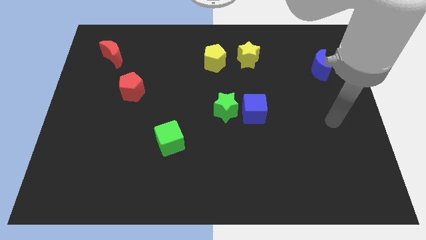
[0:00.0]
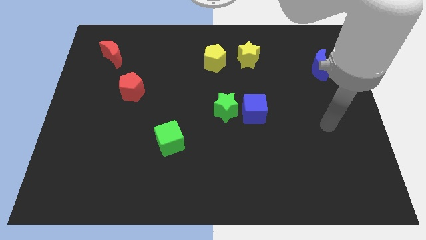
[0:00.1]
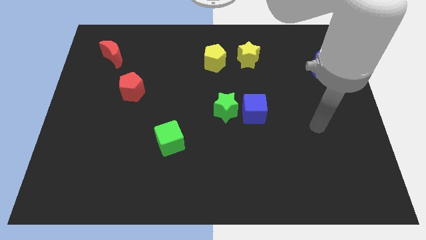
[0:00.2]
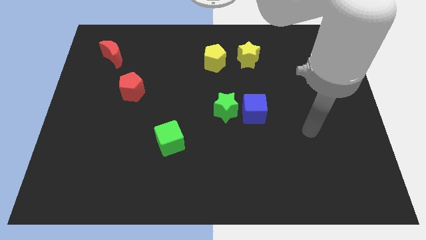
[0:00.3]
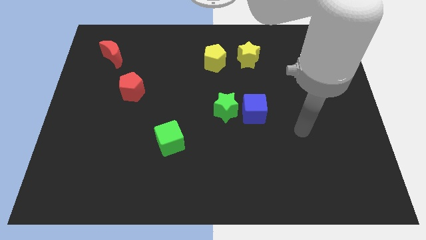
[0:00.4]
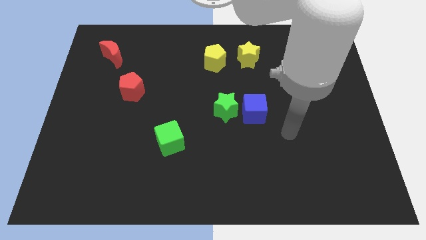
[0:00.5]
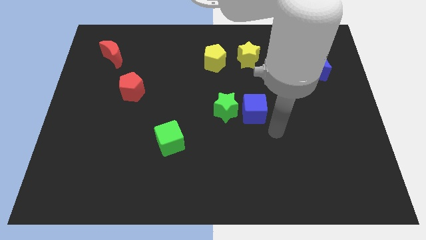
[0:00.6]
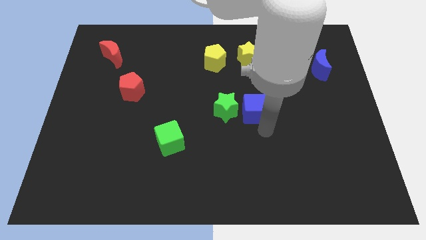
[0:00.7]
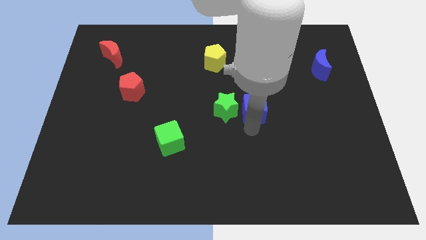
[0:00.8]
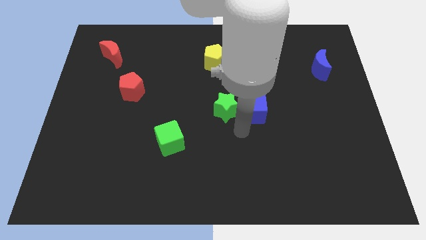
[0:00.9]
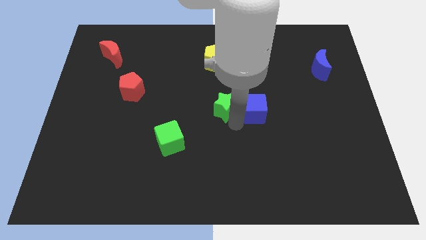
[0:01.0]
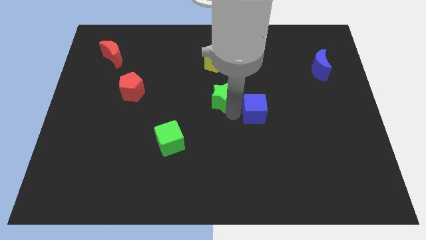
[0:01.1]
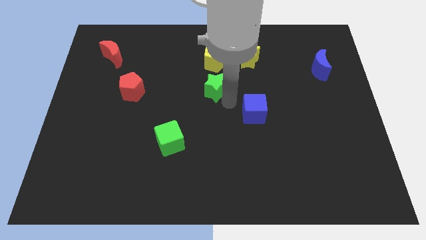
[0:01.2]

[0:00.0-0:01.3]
separate the blue cube from the green star

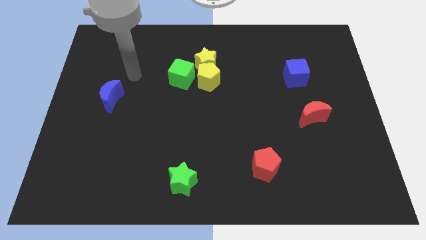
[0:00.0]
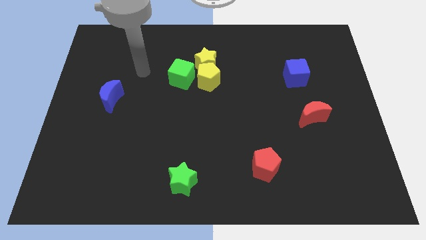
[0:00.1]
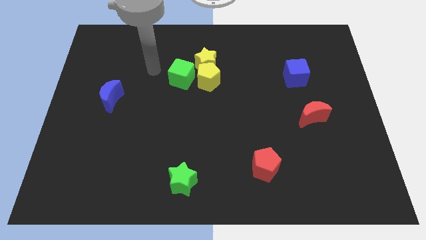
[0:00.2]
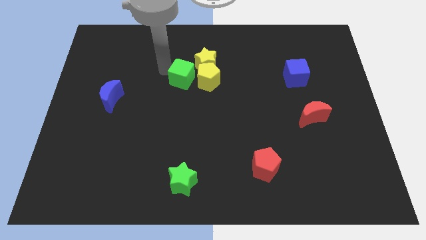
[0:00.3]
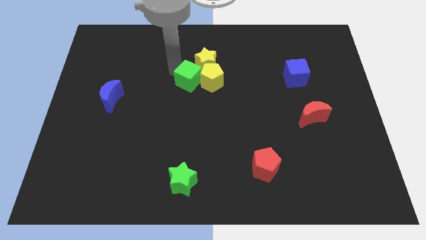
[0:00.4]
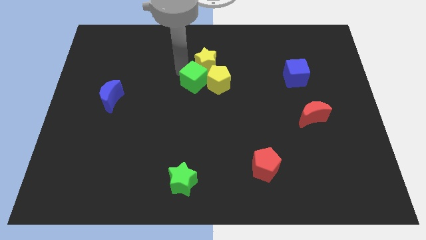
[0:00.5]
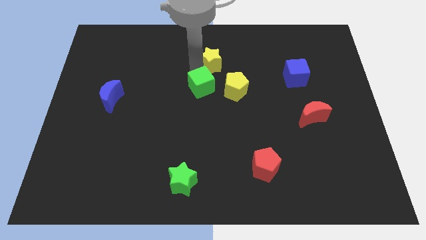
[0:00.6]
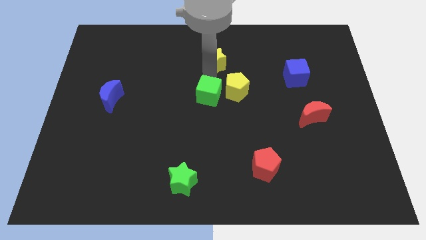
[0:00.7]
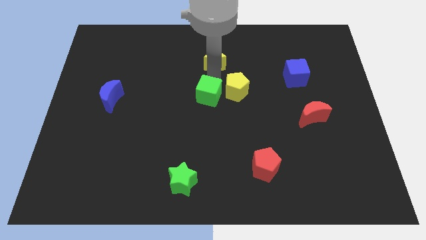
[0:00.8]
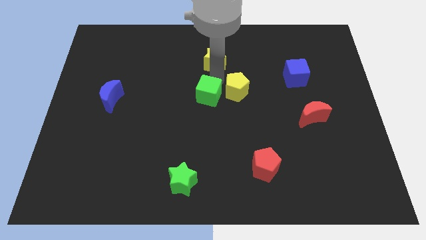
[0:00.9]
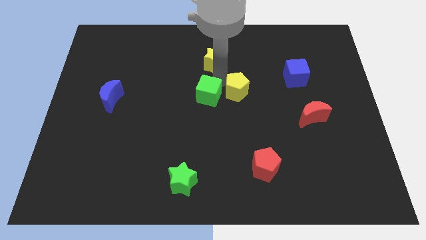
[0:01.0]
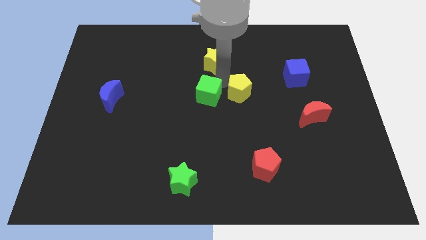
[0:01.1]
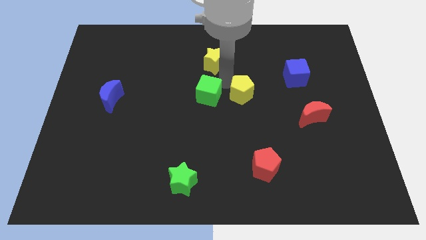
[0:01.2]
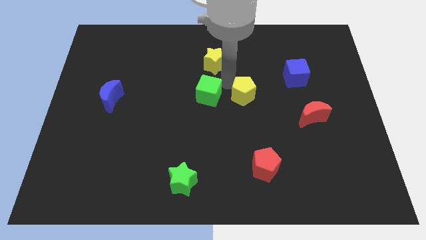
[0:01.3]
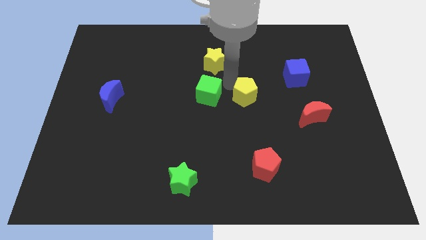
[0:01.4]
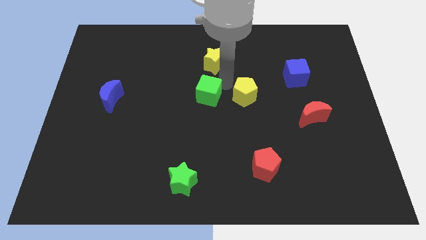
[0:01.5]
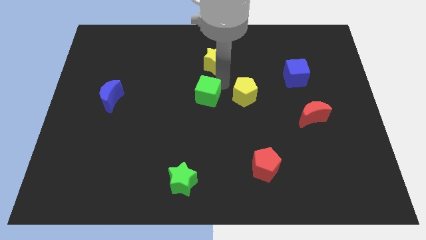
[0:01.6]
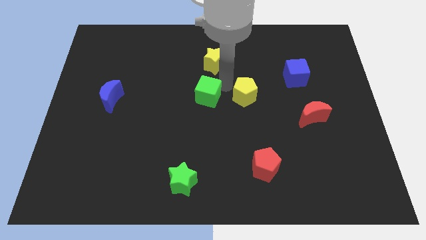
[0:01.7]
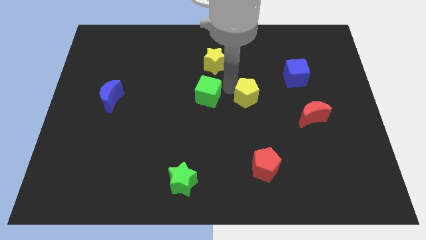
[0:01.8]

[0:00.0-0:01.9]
separate the yellow pentagon from the yellow star and green cube

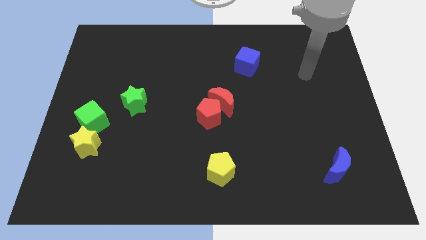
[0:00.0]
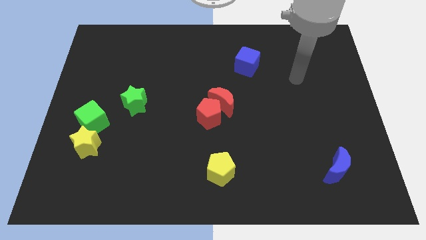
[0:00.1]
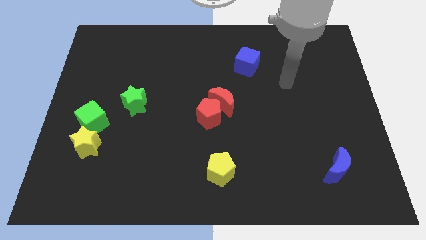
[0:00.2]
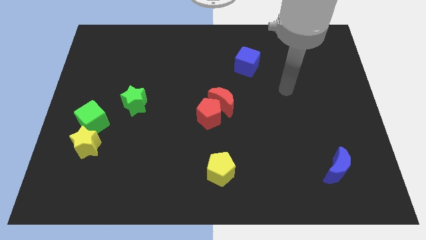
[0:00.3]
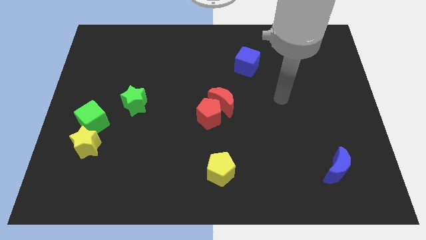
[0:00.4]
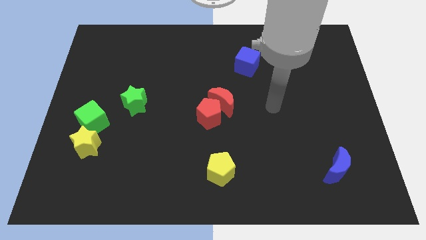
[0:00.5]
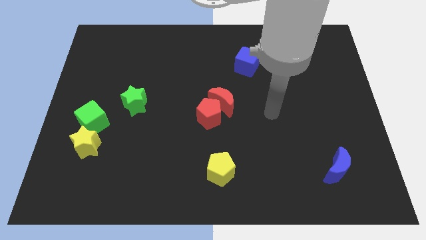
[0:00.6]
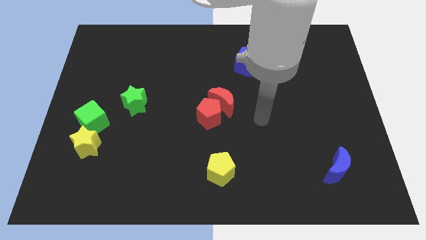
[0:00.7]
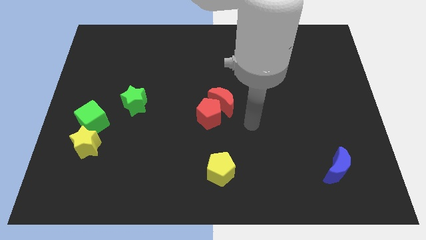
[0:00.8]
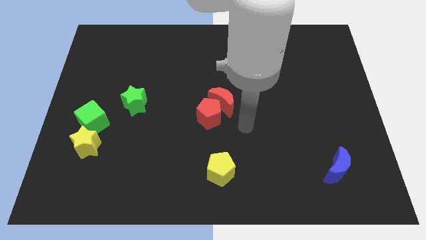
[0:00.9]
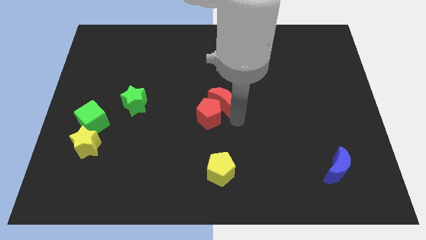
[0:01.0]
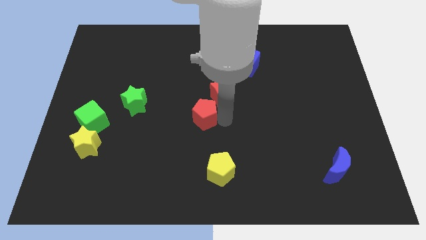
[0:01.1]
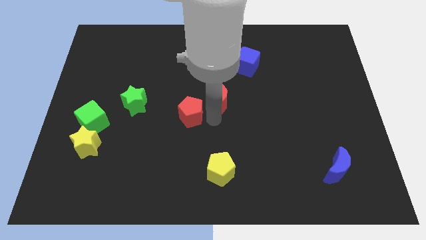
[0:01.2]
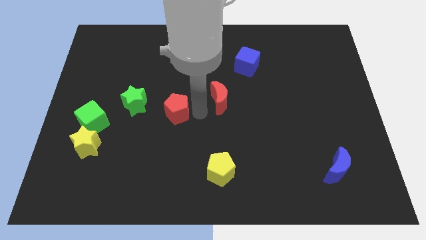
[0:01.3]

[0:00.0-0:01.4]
separate the red moon from the red pentagon

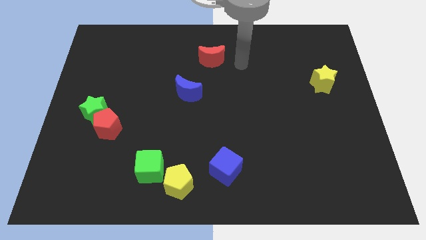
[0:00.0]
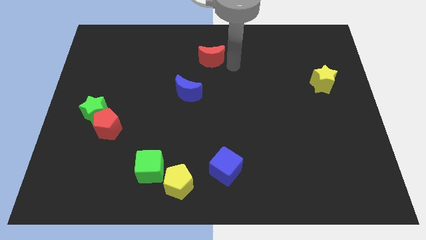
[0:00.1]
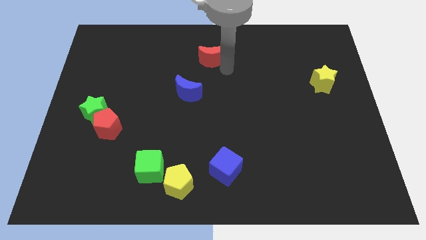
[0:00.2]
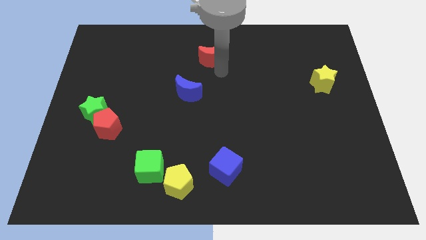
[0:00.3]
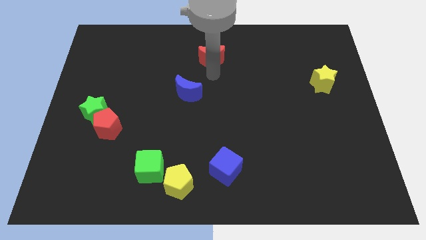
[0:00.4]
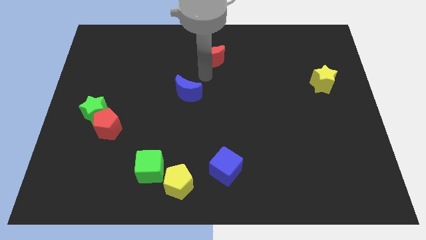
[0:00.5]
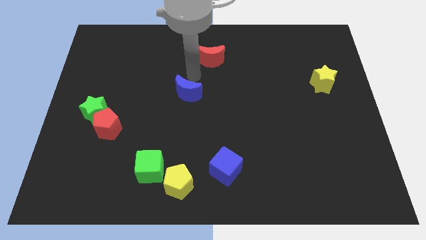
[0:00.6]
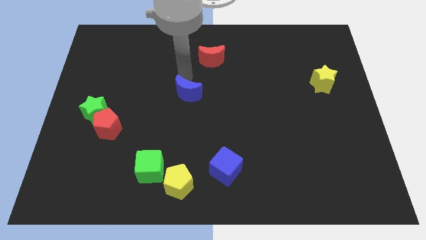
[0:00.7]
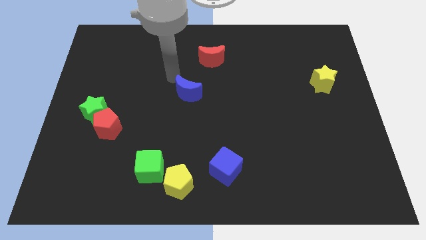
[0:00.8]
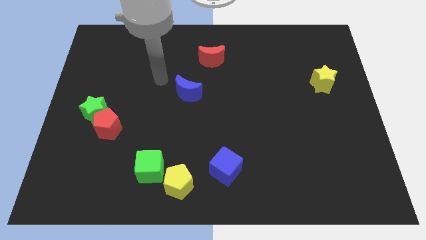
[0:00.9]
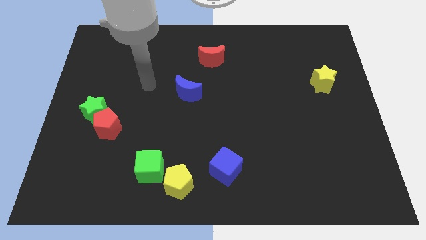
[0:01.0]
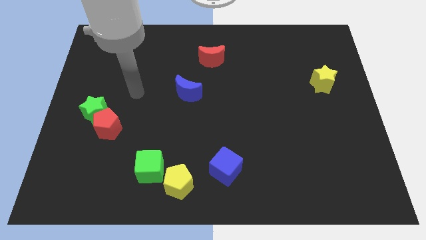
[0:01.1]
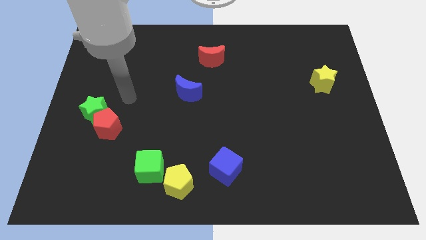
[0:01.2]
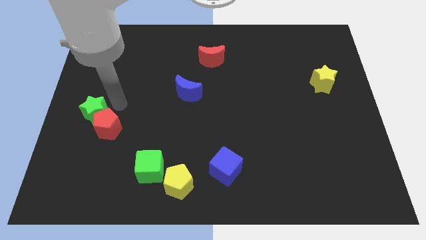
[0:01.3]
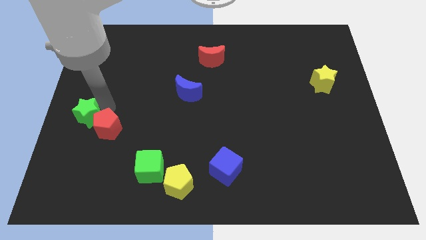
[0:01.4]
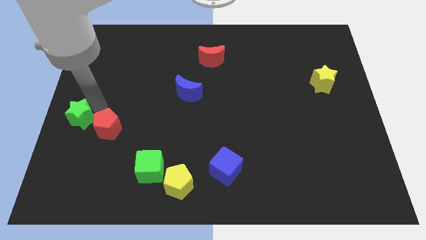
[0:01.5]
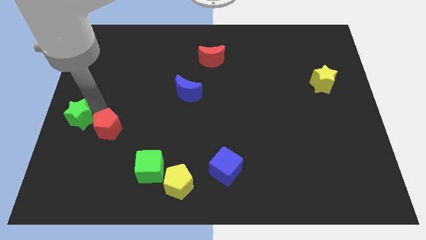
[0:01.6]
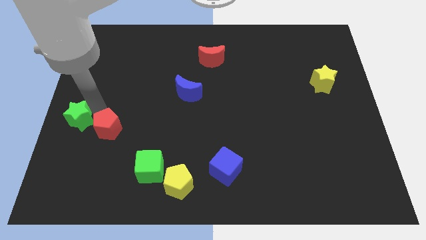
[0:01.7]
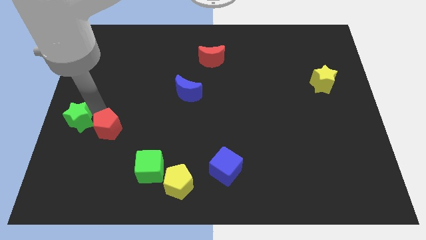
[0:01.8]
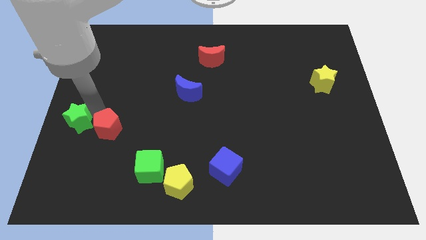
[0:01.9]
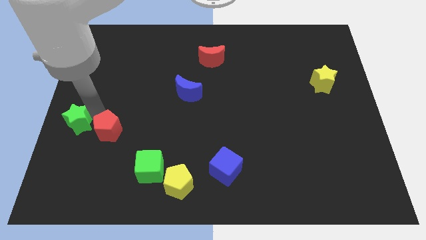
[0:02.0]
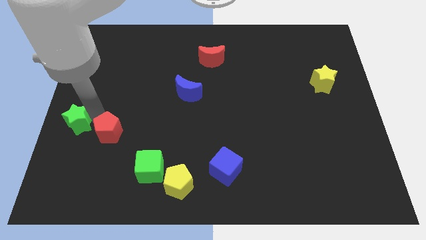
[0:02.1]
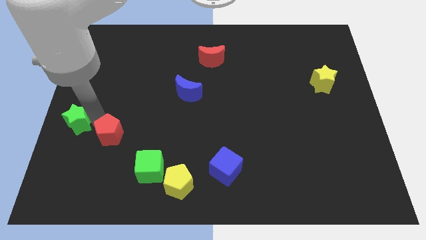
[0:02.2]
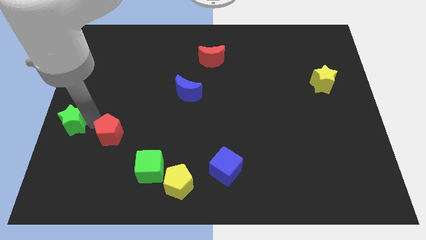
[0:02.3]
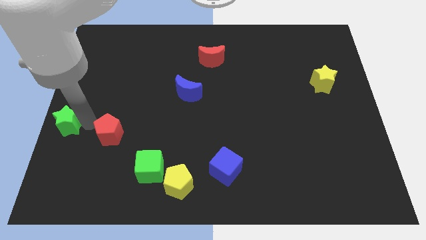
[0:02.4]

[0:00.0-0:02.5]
move the red pentagon away from the green star

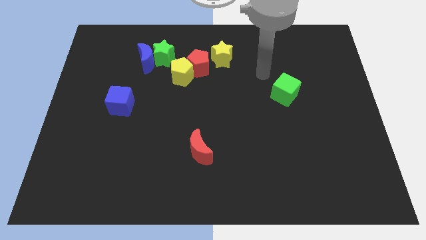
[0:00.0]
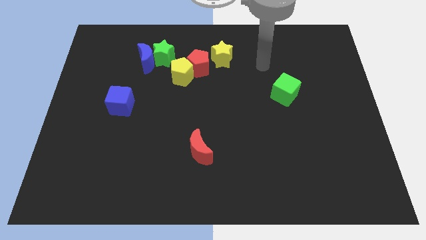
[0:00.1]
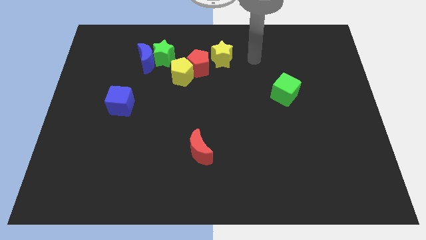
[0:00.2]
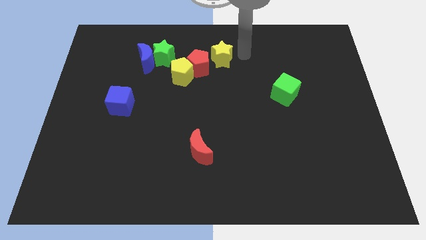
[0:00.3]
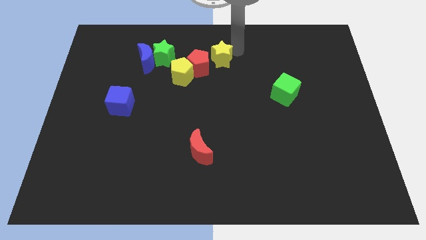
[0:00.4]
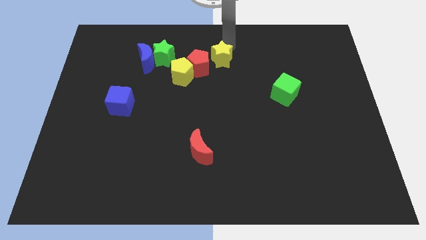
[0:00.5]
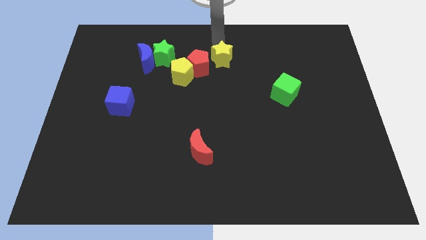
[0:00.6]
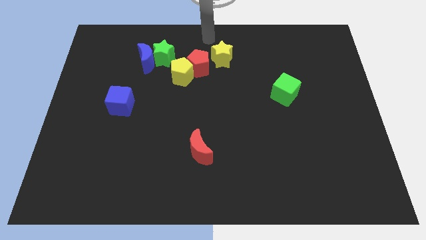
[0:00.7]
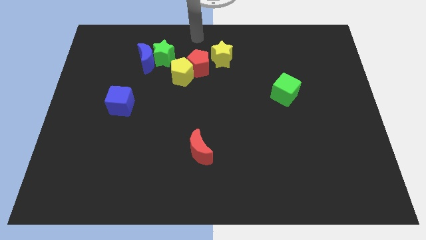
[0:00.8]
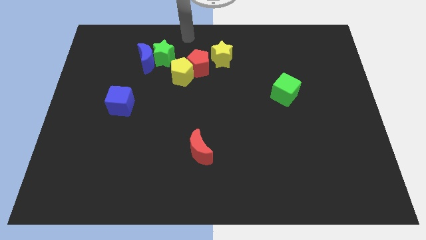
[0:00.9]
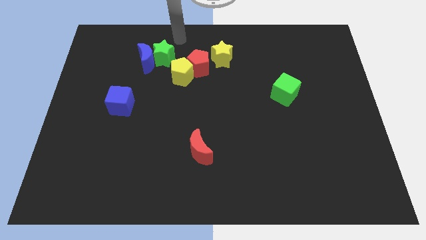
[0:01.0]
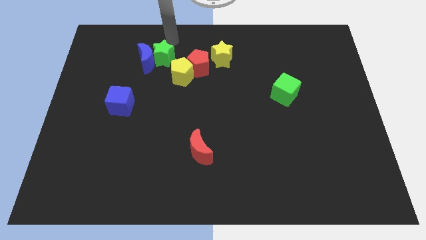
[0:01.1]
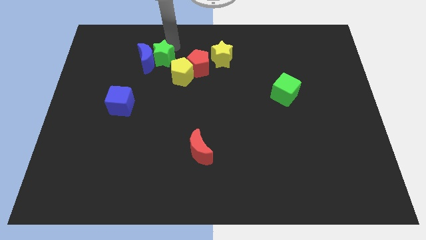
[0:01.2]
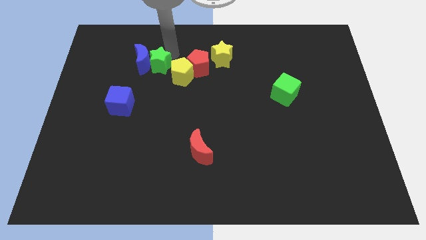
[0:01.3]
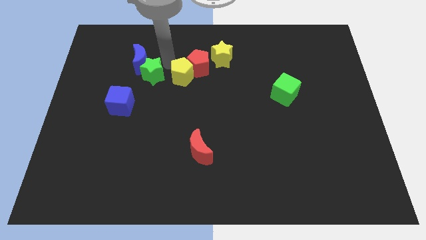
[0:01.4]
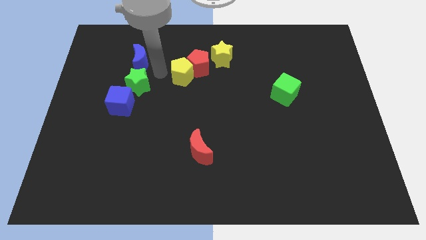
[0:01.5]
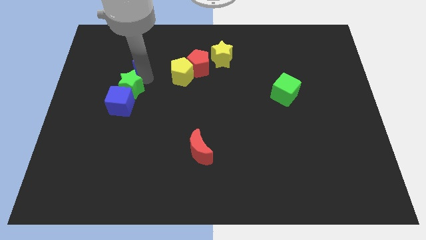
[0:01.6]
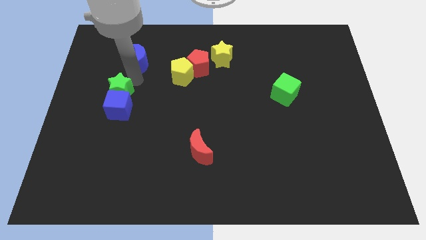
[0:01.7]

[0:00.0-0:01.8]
pull the blue moon apart from the green star

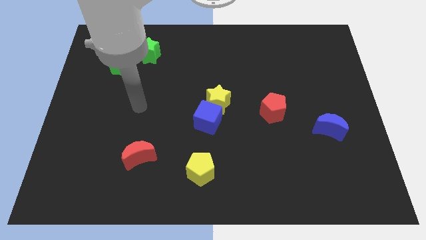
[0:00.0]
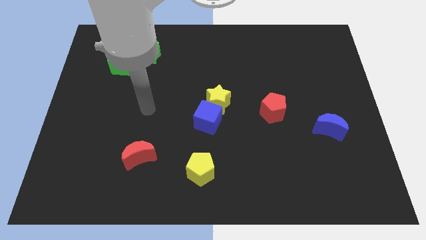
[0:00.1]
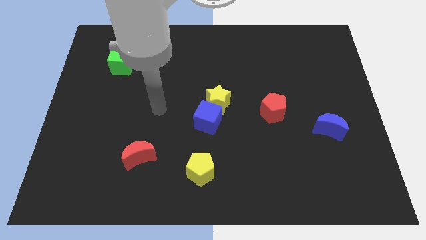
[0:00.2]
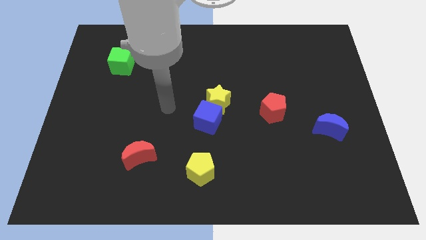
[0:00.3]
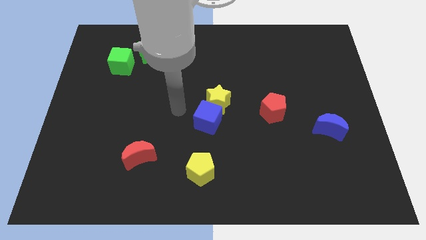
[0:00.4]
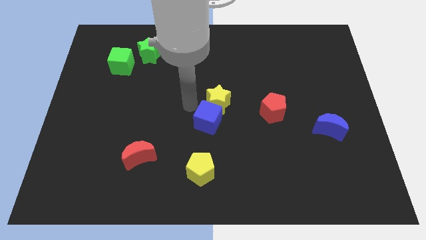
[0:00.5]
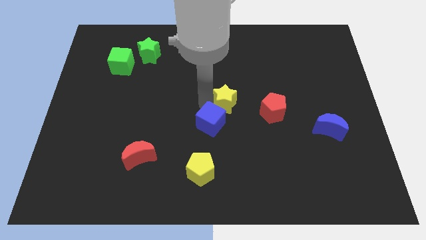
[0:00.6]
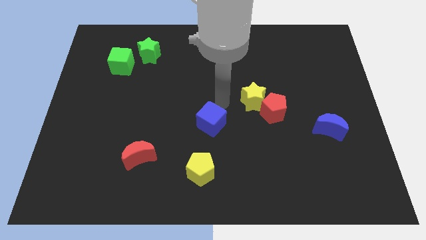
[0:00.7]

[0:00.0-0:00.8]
pull the blue cube apart from the yellow star
